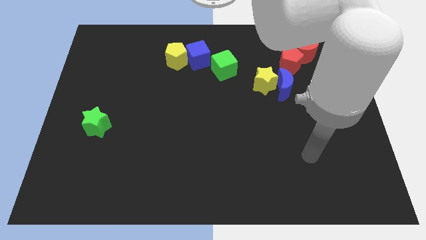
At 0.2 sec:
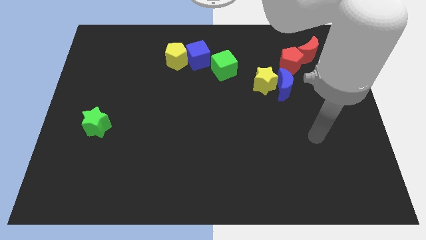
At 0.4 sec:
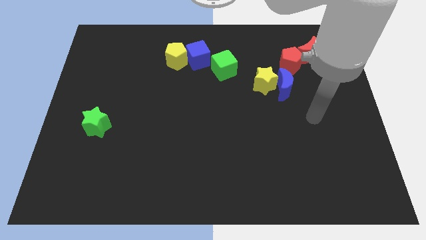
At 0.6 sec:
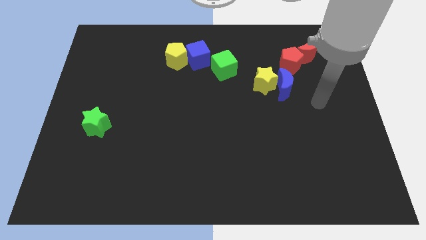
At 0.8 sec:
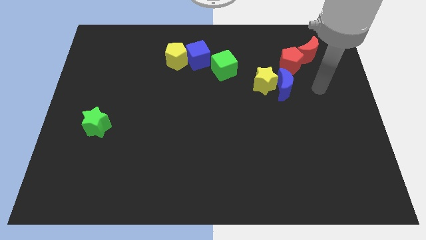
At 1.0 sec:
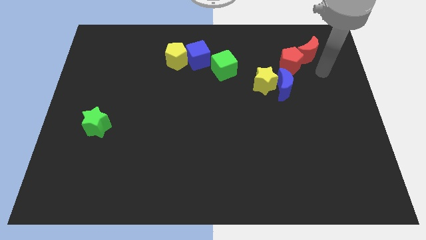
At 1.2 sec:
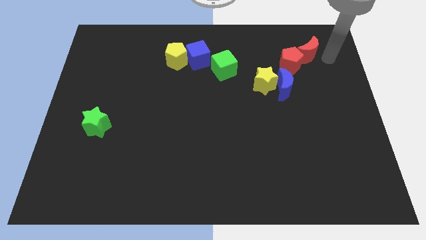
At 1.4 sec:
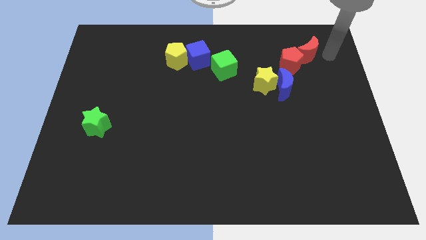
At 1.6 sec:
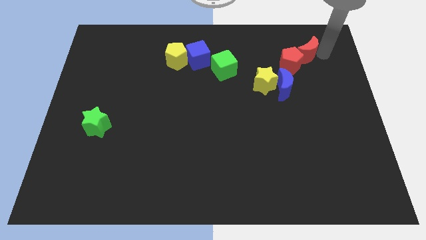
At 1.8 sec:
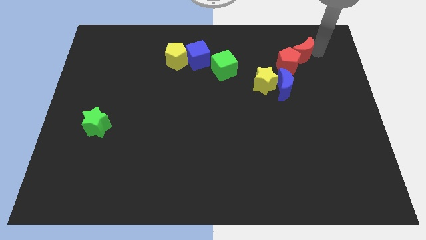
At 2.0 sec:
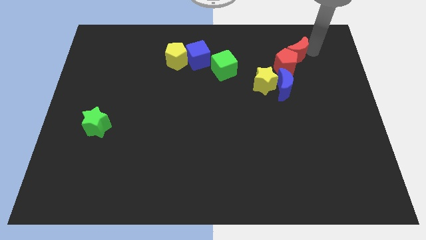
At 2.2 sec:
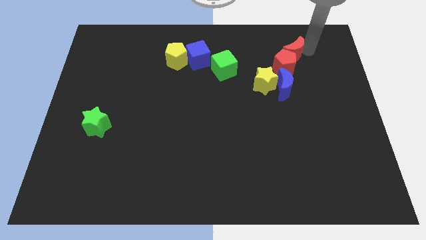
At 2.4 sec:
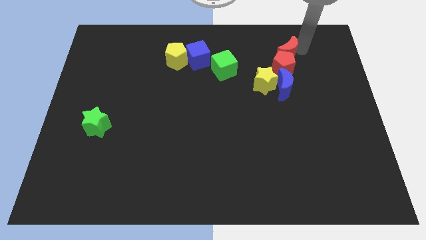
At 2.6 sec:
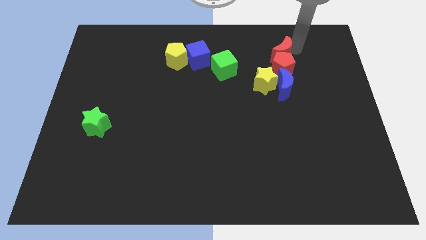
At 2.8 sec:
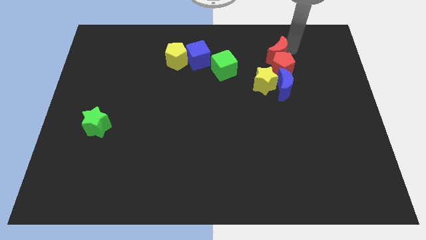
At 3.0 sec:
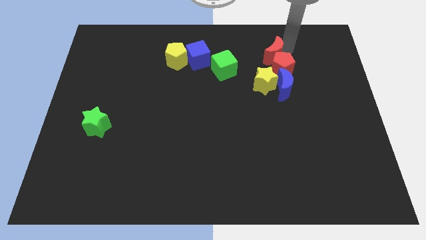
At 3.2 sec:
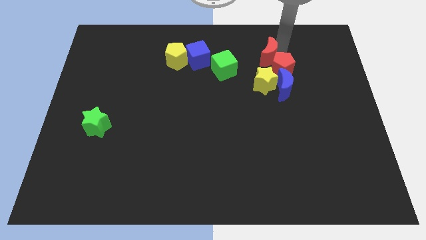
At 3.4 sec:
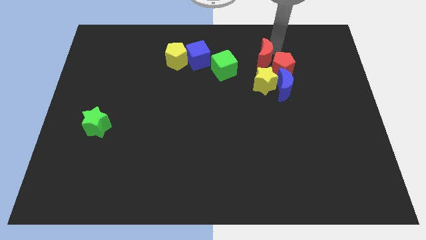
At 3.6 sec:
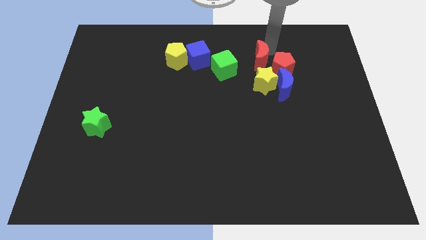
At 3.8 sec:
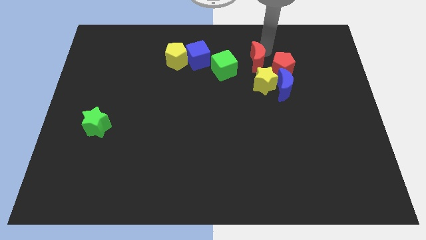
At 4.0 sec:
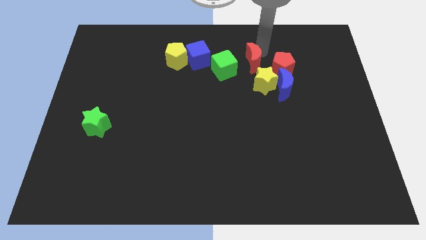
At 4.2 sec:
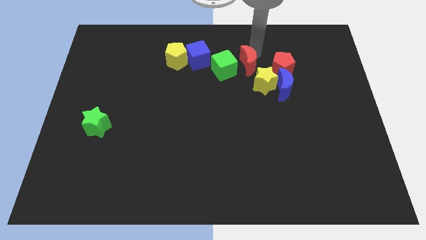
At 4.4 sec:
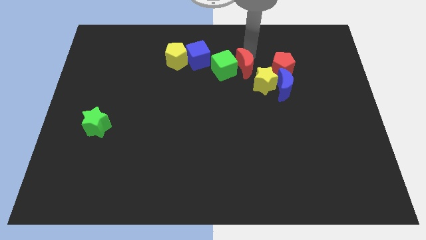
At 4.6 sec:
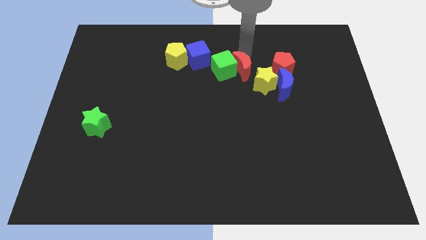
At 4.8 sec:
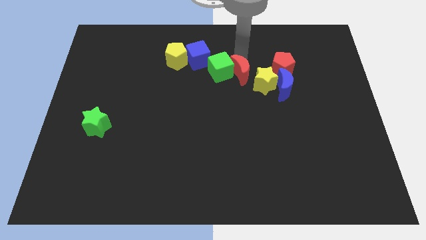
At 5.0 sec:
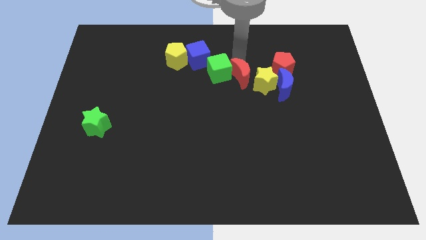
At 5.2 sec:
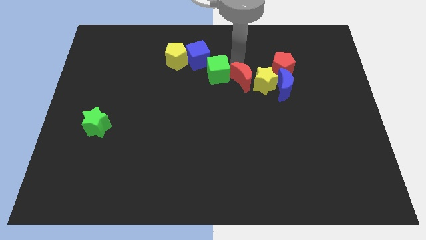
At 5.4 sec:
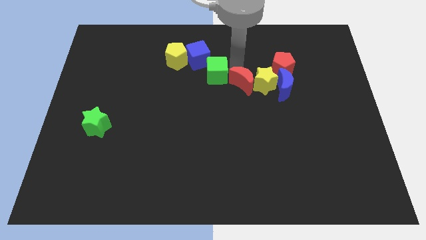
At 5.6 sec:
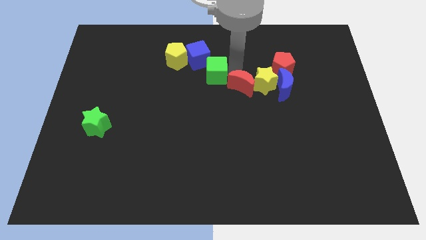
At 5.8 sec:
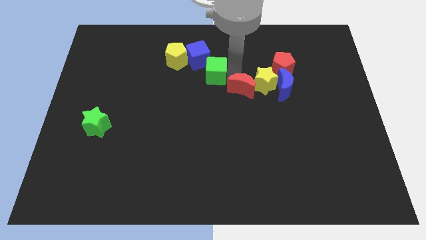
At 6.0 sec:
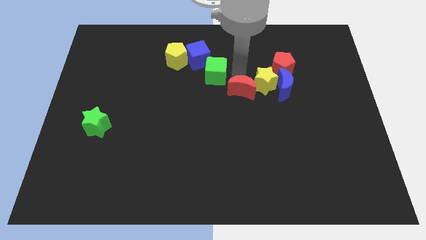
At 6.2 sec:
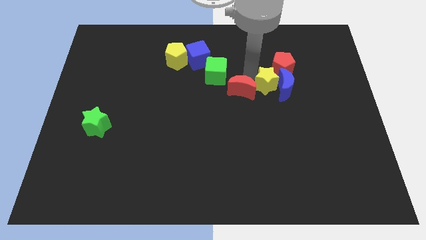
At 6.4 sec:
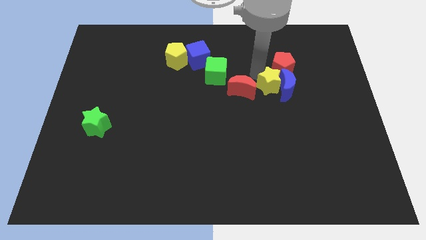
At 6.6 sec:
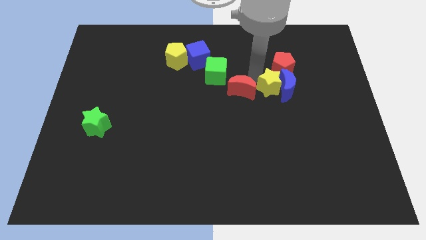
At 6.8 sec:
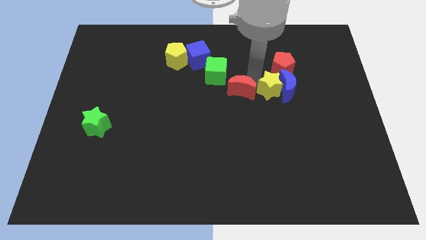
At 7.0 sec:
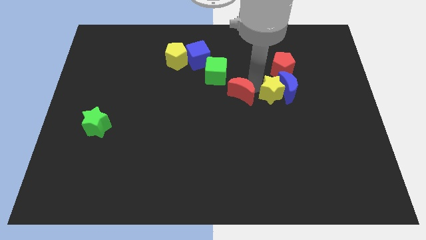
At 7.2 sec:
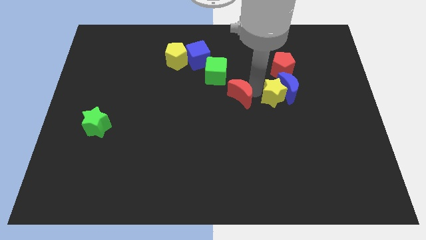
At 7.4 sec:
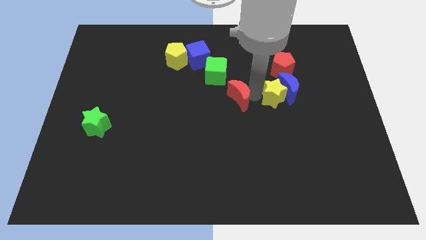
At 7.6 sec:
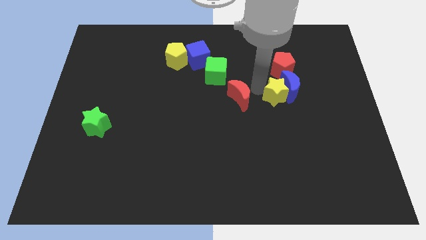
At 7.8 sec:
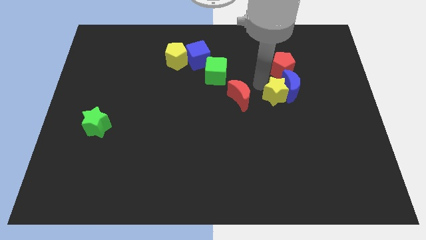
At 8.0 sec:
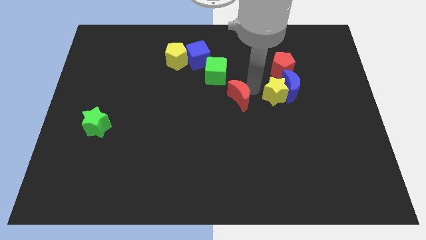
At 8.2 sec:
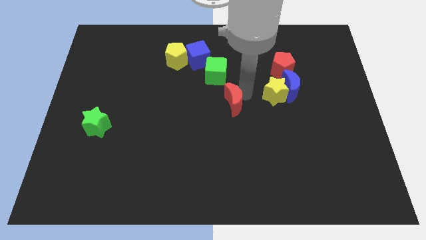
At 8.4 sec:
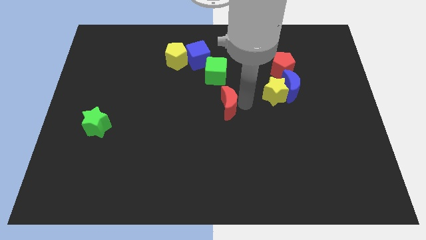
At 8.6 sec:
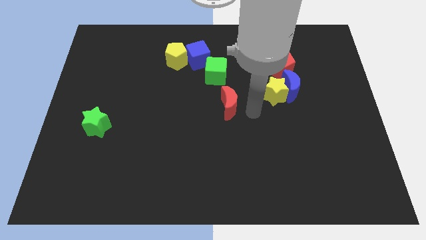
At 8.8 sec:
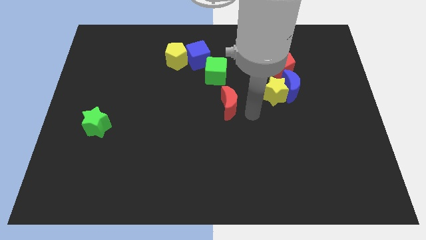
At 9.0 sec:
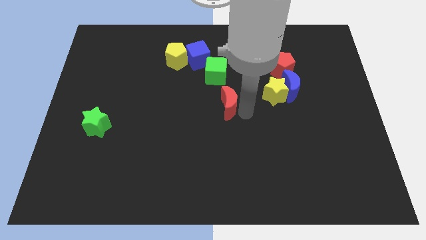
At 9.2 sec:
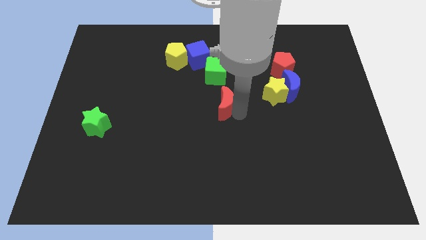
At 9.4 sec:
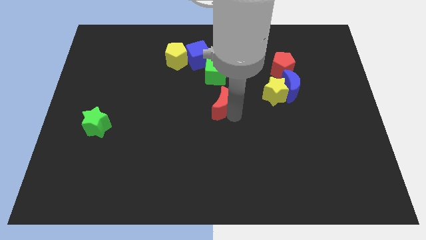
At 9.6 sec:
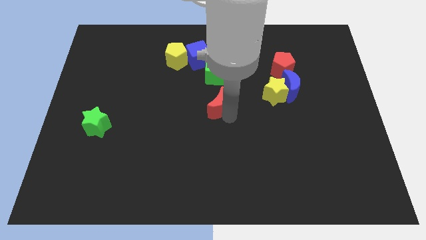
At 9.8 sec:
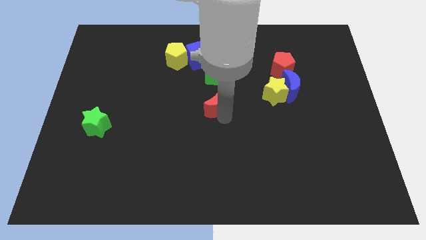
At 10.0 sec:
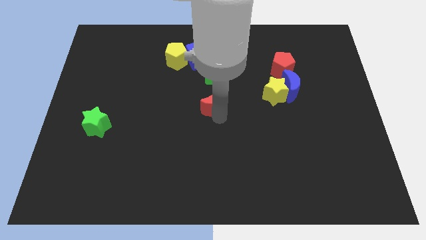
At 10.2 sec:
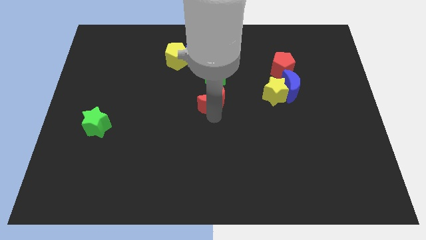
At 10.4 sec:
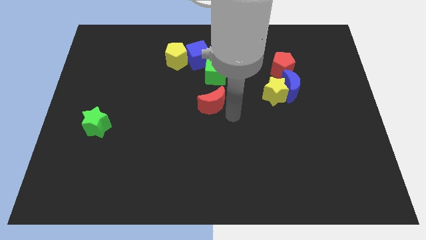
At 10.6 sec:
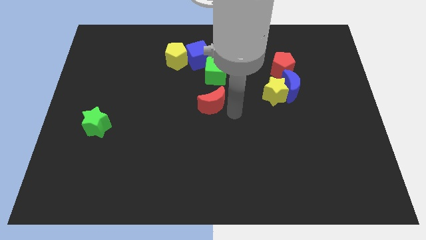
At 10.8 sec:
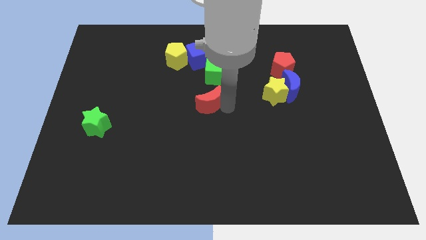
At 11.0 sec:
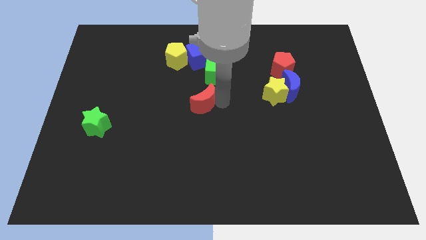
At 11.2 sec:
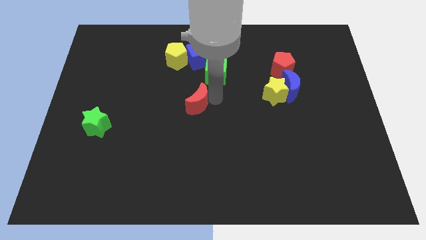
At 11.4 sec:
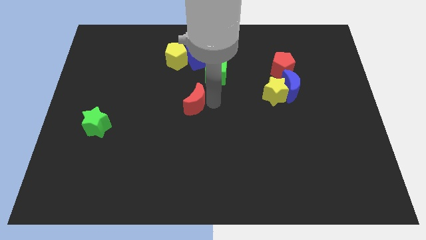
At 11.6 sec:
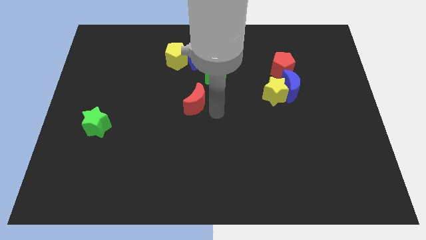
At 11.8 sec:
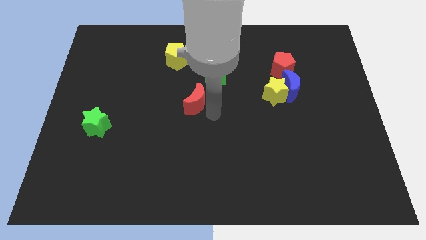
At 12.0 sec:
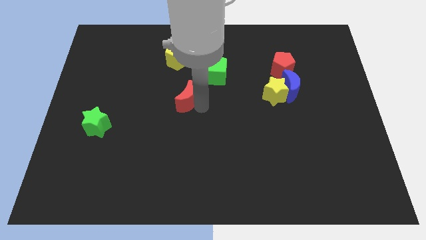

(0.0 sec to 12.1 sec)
move the red moon to the bottom of the yellow pentagon

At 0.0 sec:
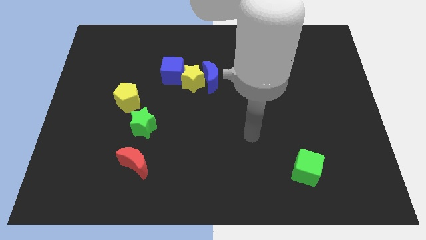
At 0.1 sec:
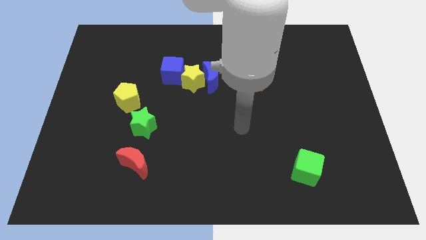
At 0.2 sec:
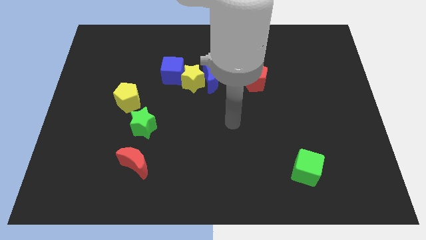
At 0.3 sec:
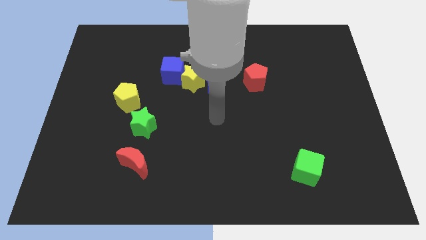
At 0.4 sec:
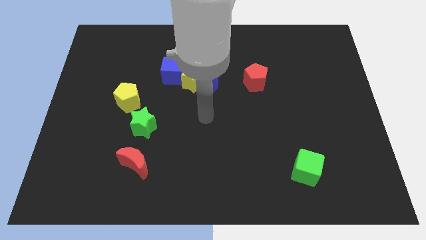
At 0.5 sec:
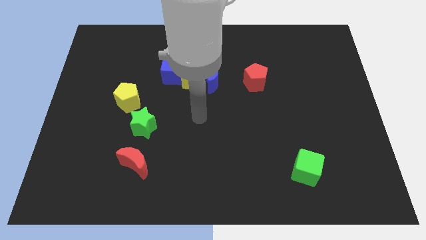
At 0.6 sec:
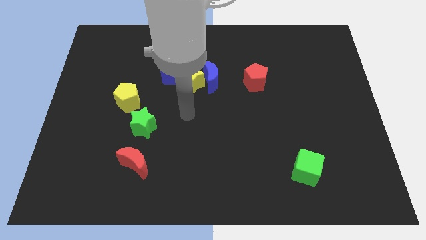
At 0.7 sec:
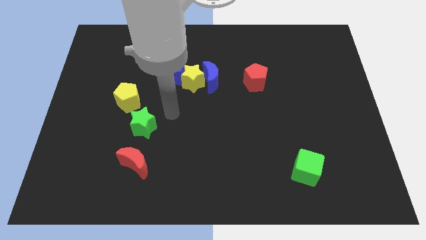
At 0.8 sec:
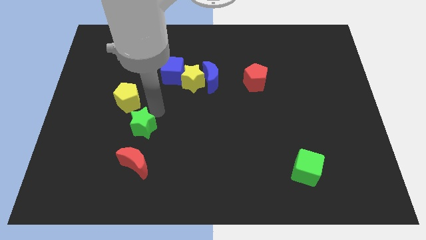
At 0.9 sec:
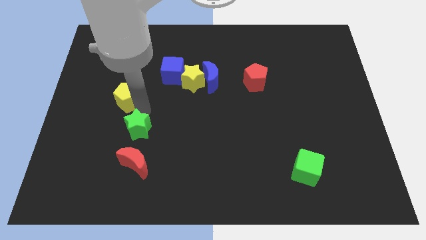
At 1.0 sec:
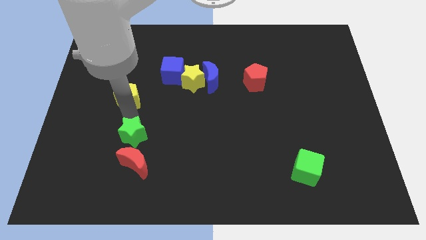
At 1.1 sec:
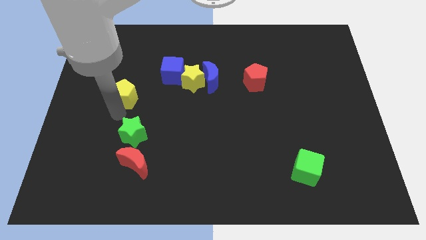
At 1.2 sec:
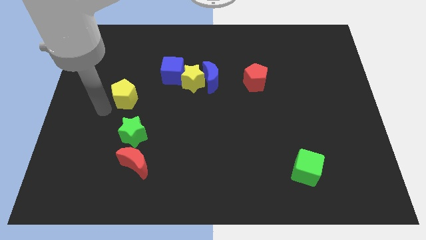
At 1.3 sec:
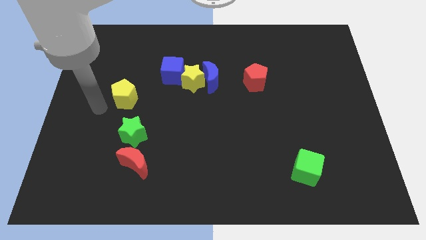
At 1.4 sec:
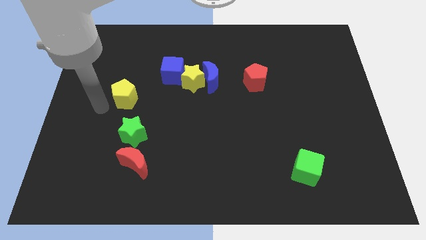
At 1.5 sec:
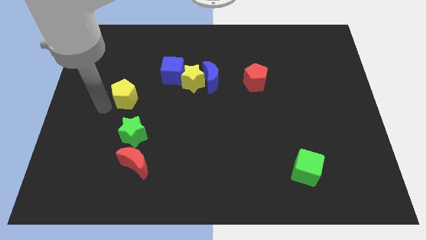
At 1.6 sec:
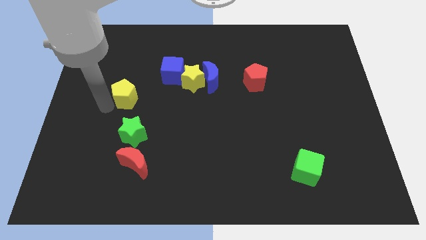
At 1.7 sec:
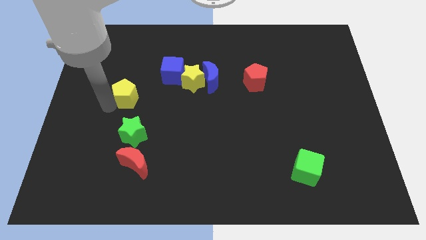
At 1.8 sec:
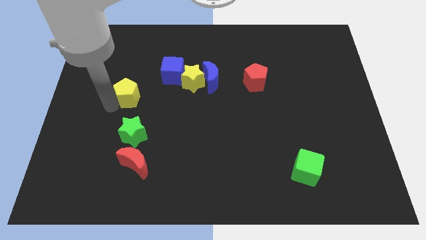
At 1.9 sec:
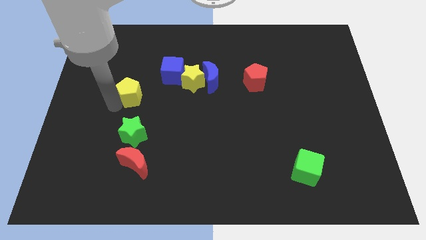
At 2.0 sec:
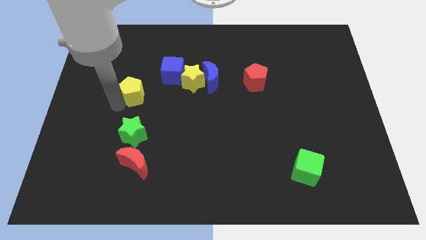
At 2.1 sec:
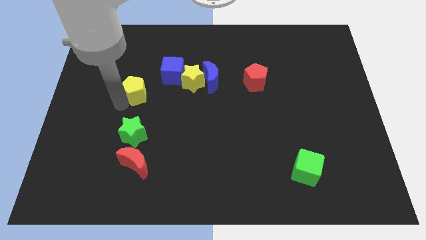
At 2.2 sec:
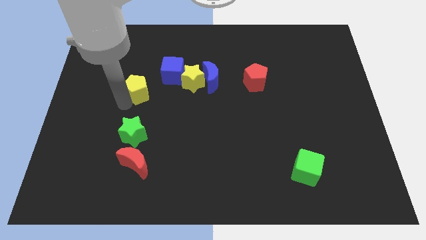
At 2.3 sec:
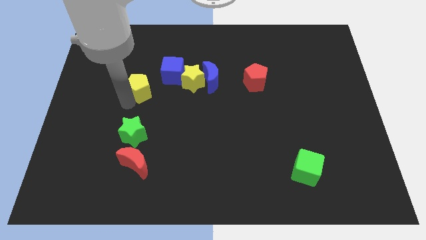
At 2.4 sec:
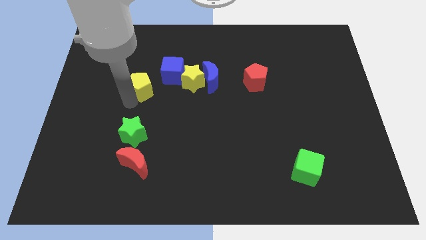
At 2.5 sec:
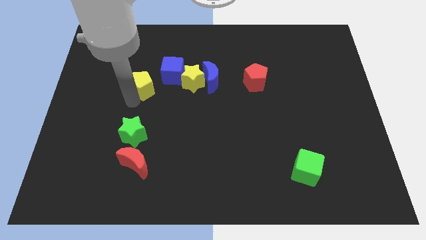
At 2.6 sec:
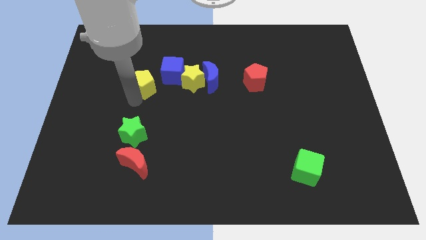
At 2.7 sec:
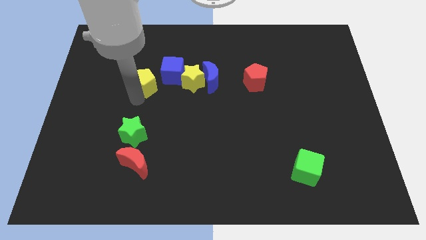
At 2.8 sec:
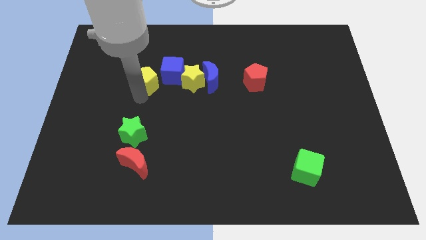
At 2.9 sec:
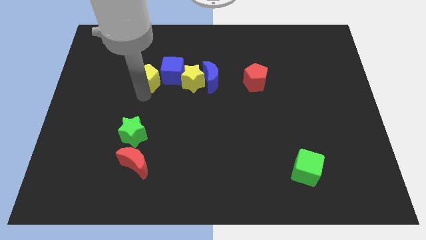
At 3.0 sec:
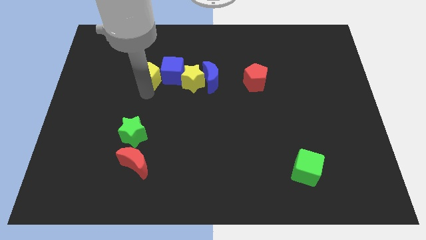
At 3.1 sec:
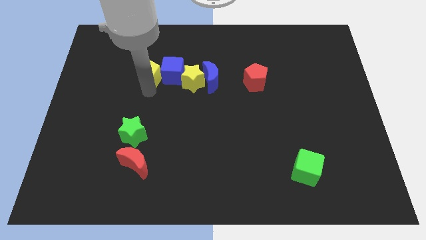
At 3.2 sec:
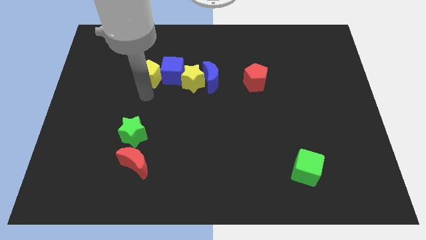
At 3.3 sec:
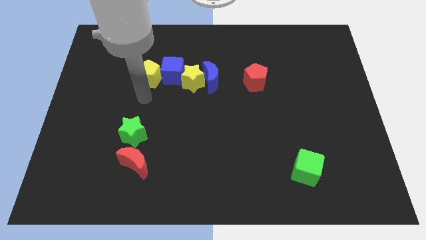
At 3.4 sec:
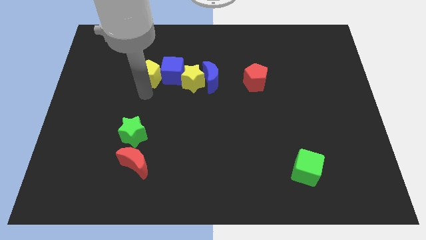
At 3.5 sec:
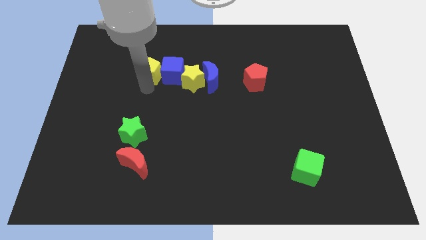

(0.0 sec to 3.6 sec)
push the yellow pentagon to the top left of the blue cube
